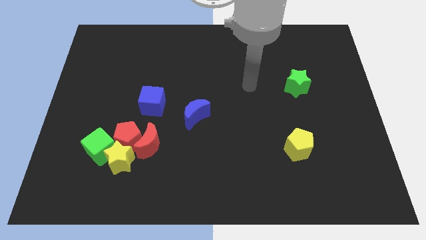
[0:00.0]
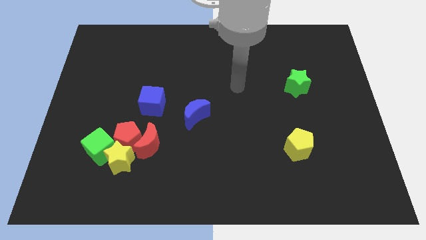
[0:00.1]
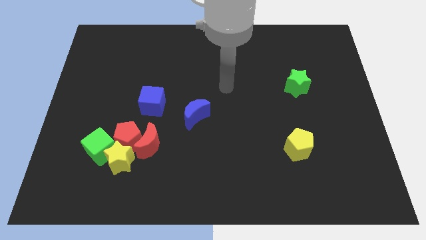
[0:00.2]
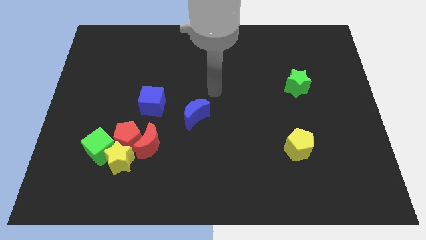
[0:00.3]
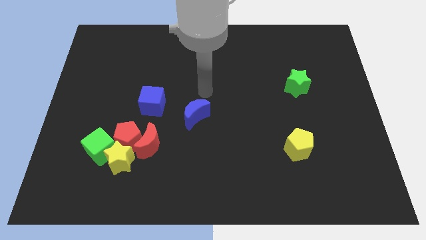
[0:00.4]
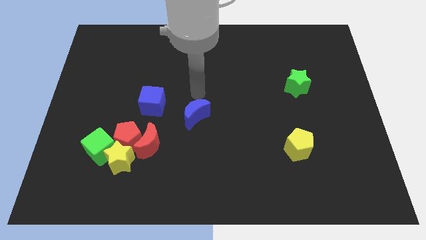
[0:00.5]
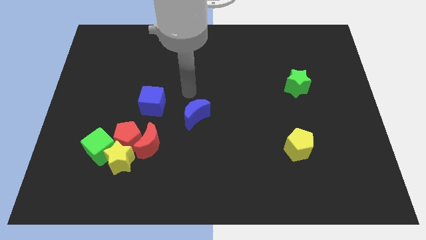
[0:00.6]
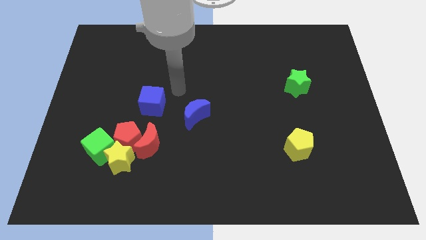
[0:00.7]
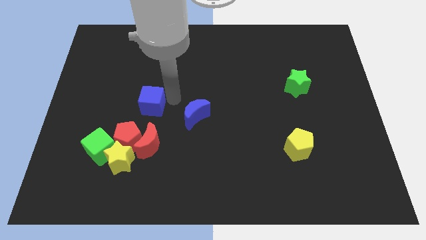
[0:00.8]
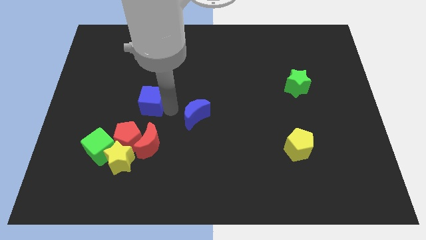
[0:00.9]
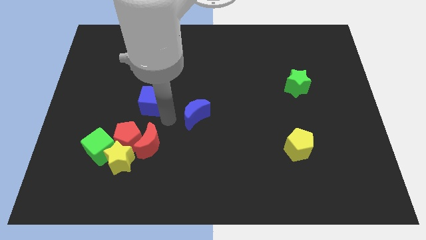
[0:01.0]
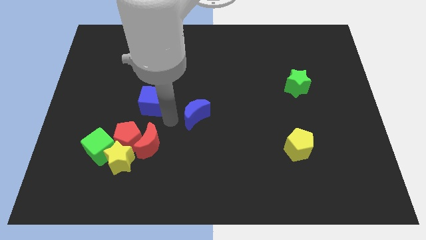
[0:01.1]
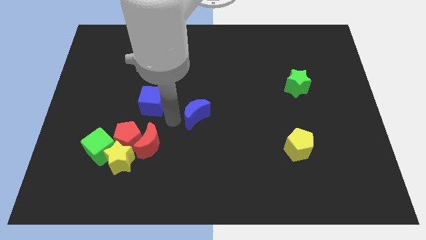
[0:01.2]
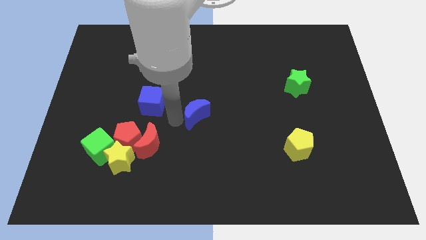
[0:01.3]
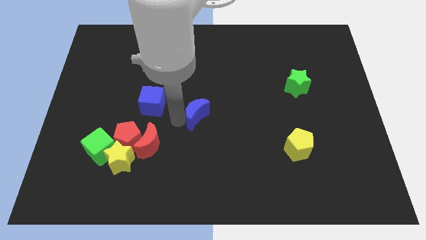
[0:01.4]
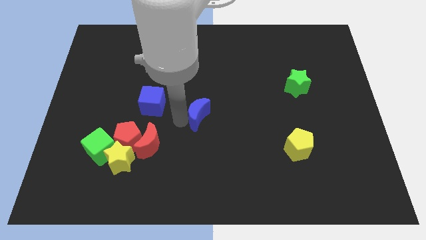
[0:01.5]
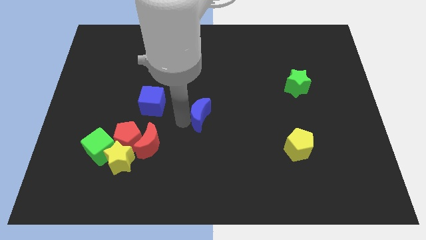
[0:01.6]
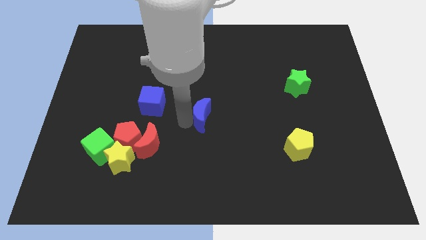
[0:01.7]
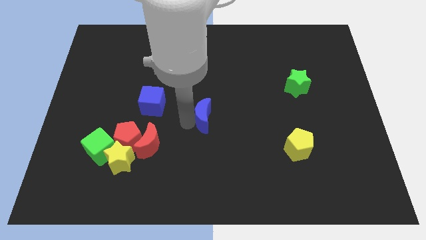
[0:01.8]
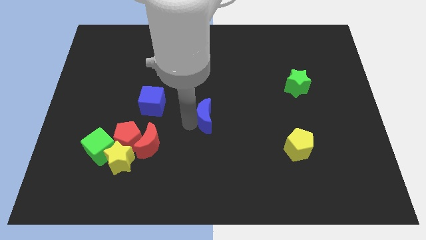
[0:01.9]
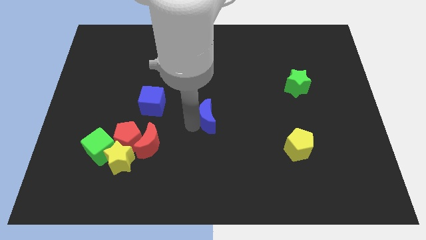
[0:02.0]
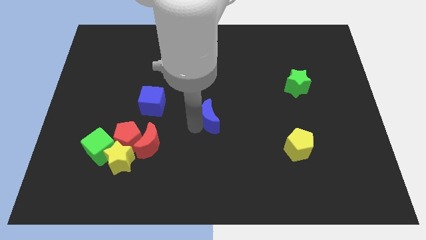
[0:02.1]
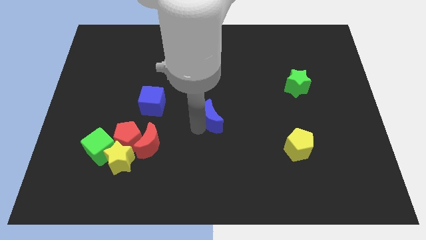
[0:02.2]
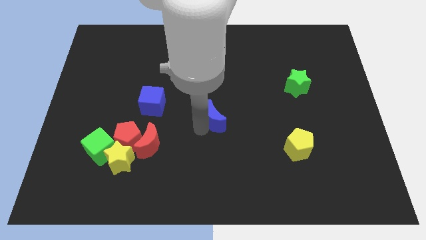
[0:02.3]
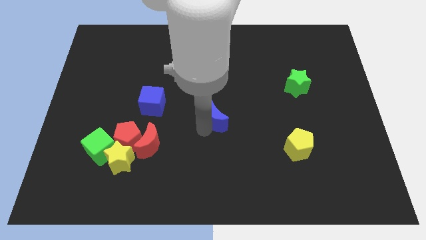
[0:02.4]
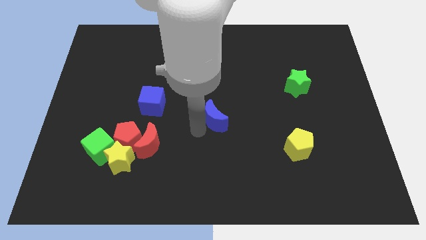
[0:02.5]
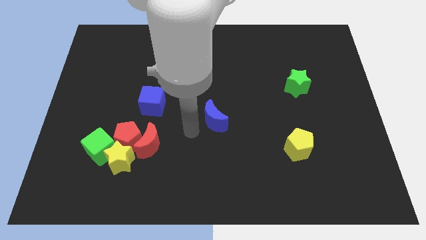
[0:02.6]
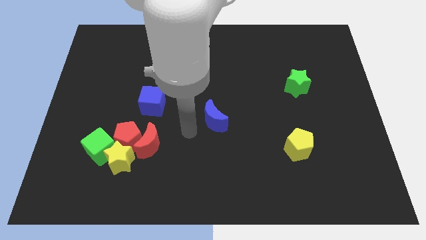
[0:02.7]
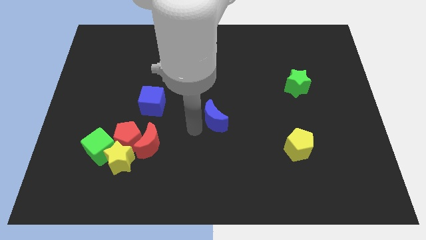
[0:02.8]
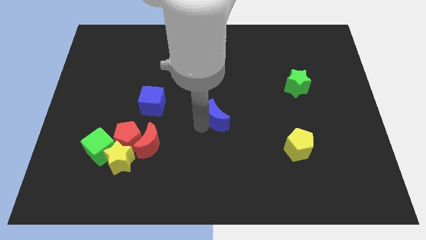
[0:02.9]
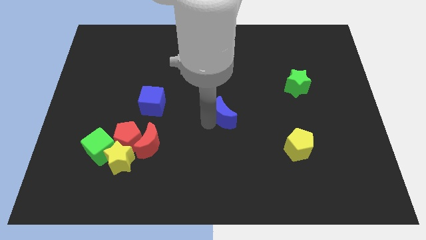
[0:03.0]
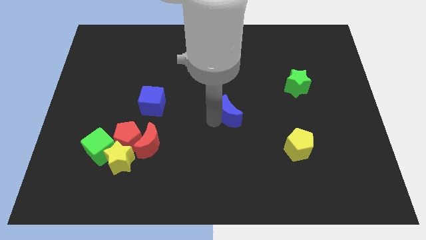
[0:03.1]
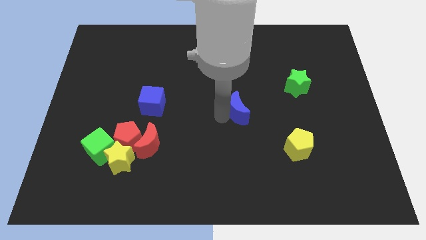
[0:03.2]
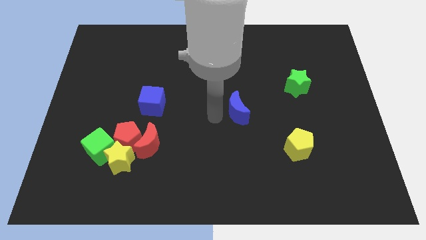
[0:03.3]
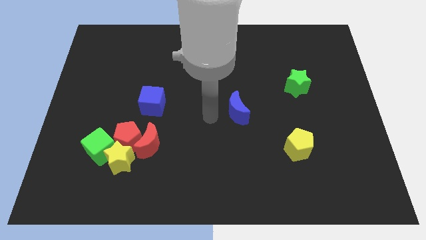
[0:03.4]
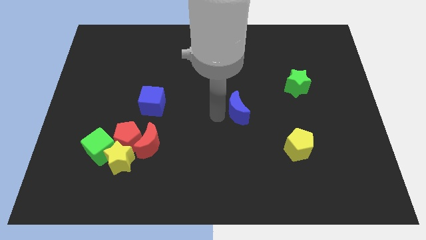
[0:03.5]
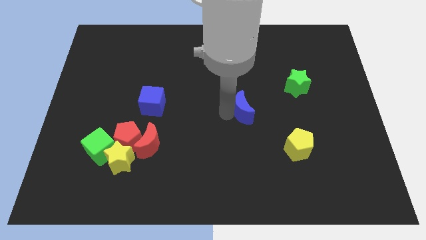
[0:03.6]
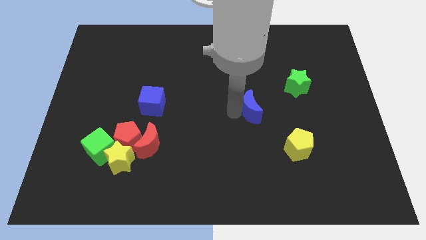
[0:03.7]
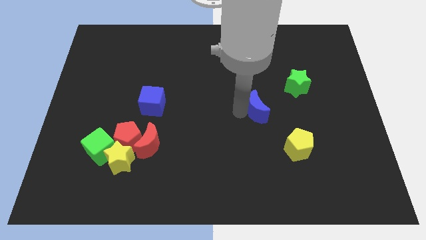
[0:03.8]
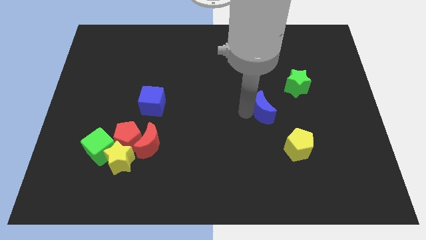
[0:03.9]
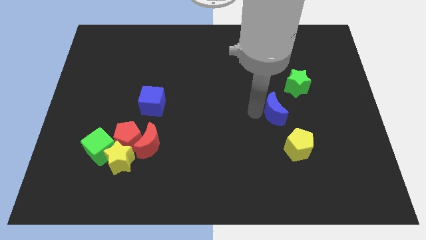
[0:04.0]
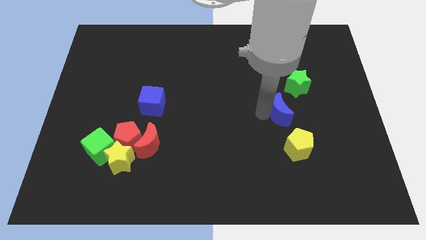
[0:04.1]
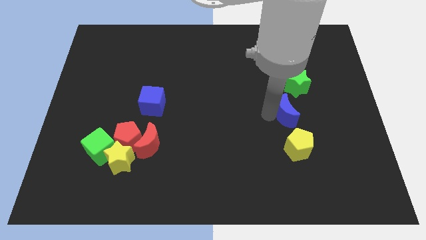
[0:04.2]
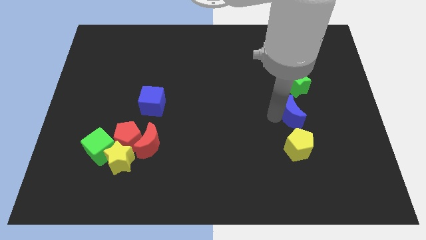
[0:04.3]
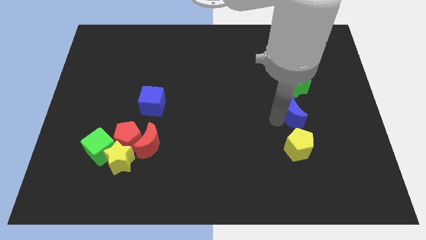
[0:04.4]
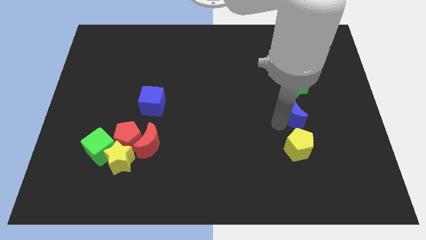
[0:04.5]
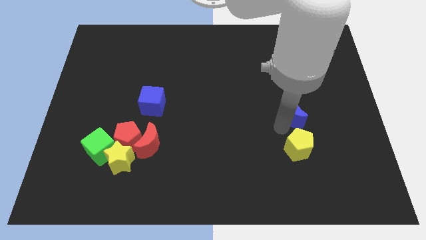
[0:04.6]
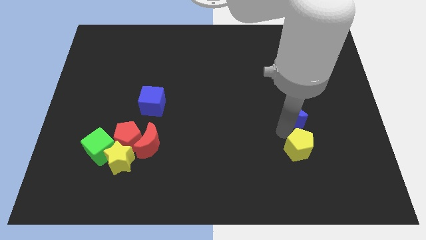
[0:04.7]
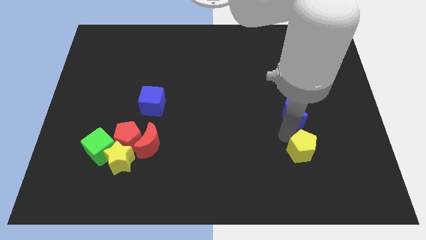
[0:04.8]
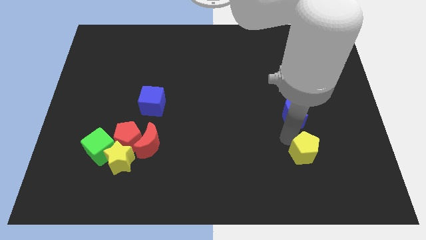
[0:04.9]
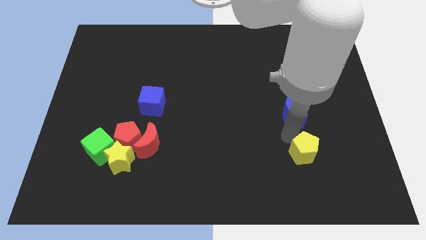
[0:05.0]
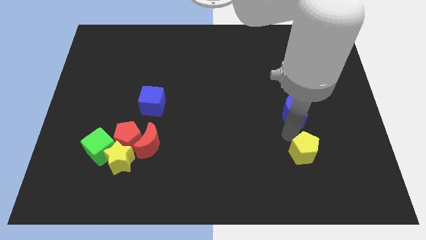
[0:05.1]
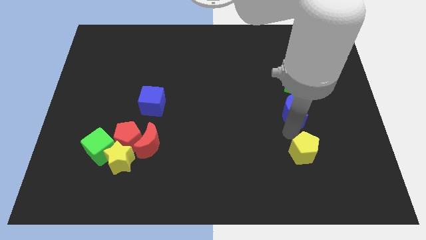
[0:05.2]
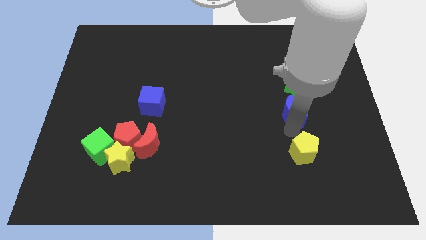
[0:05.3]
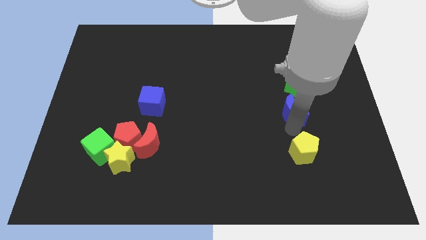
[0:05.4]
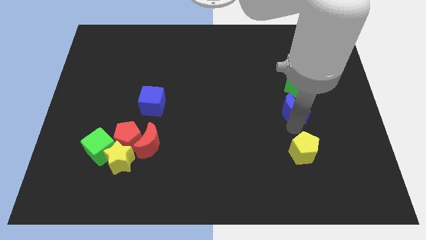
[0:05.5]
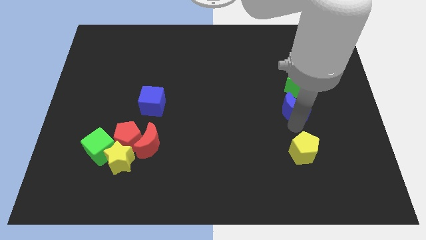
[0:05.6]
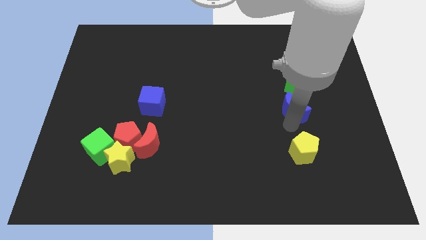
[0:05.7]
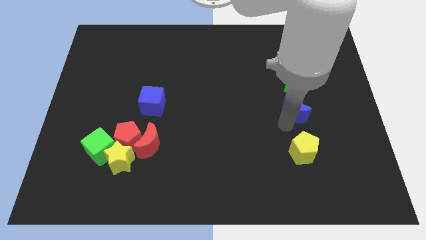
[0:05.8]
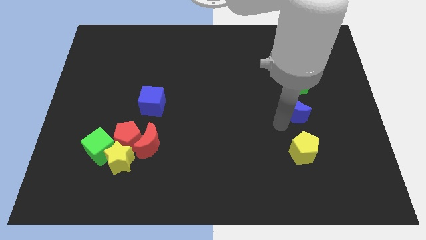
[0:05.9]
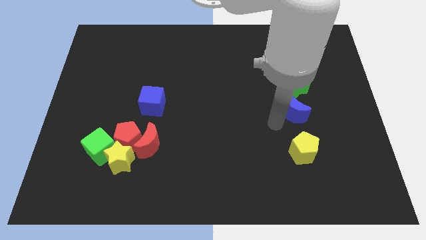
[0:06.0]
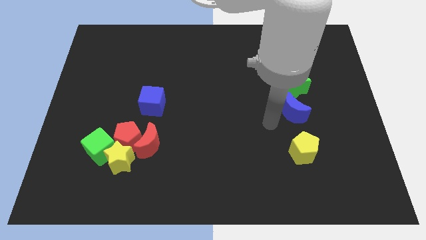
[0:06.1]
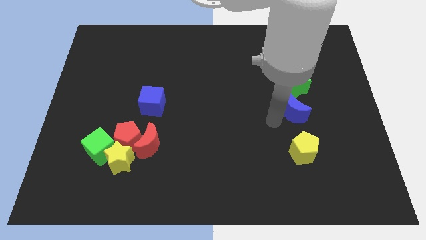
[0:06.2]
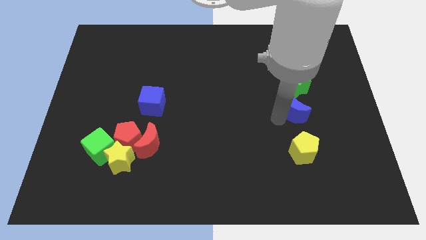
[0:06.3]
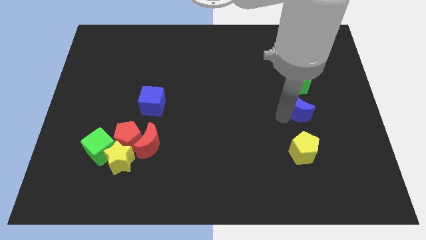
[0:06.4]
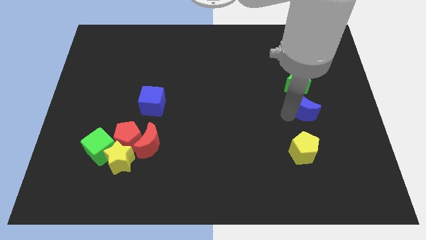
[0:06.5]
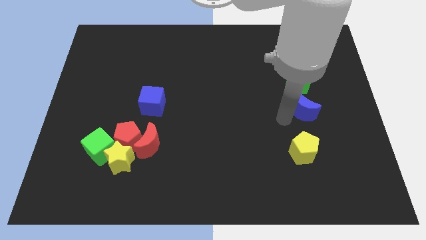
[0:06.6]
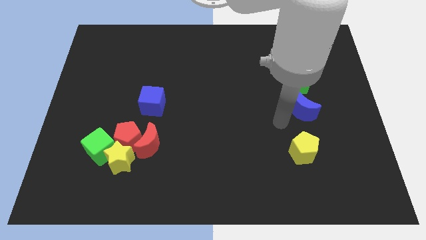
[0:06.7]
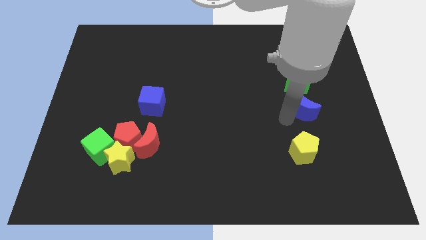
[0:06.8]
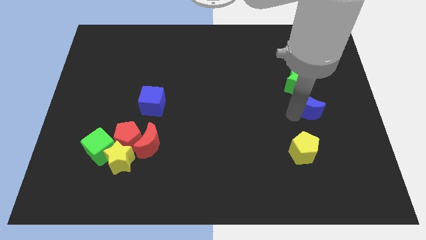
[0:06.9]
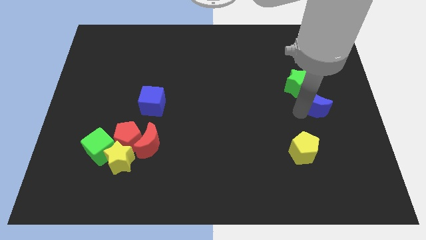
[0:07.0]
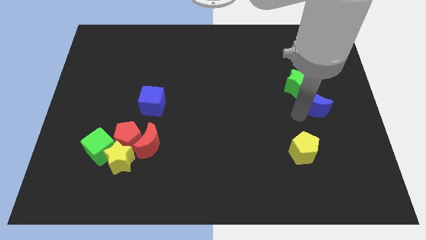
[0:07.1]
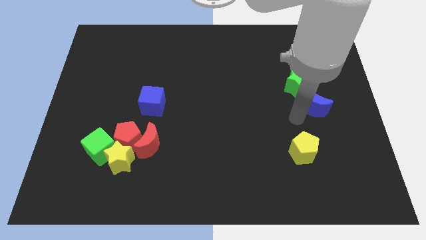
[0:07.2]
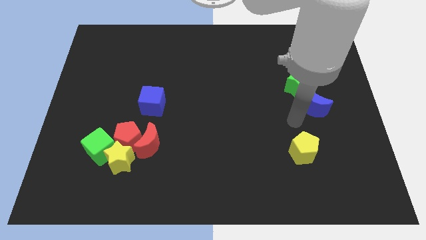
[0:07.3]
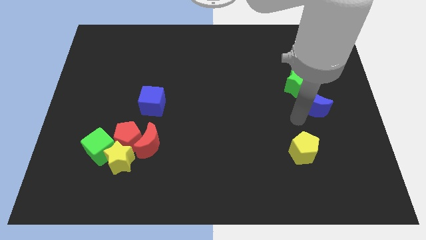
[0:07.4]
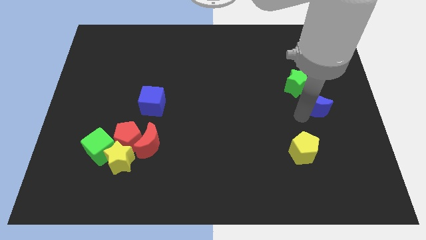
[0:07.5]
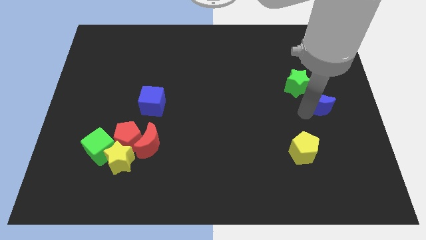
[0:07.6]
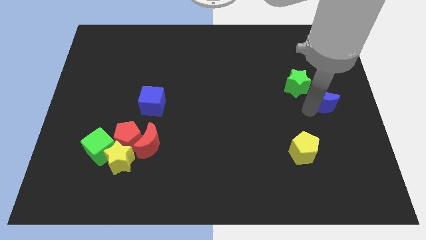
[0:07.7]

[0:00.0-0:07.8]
put the blue moon to the right side of the board

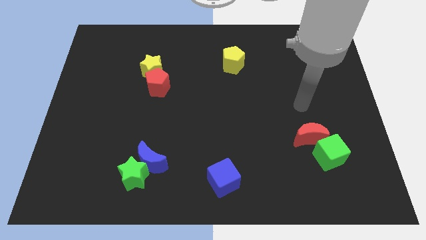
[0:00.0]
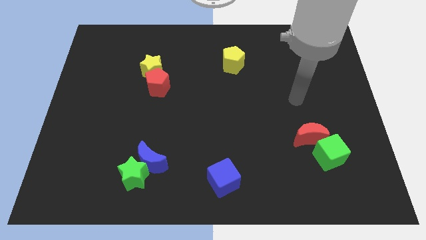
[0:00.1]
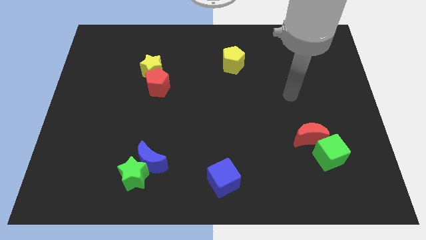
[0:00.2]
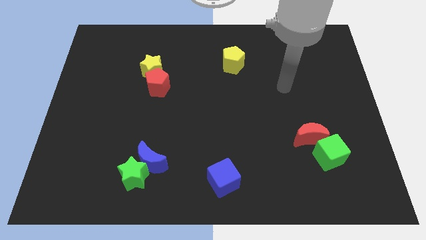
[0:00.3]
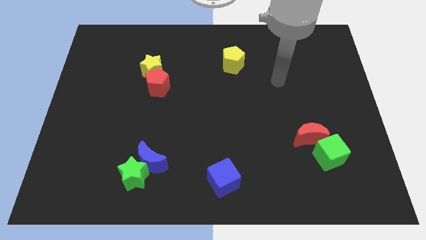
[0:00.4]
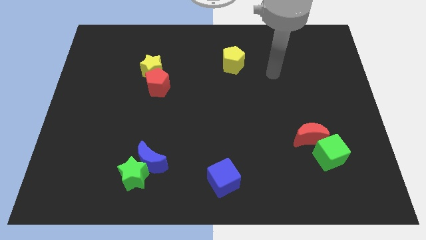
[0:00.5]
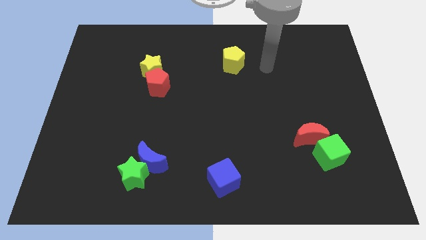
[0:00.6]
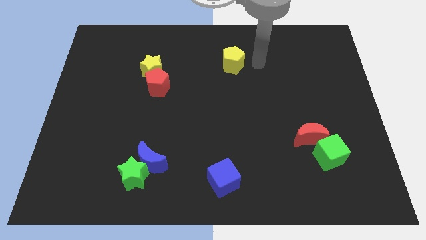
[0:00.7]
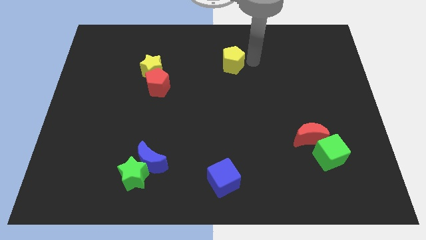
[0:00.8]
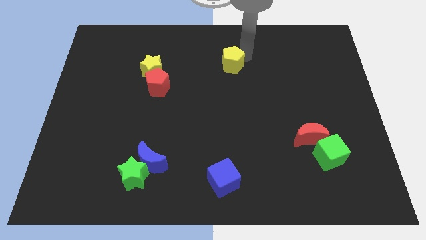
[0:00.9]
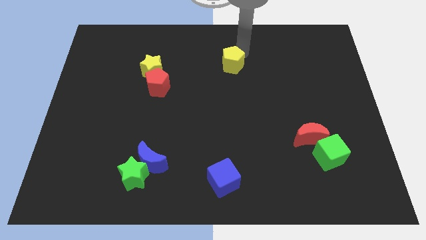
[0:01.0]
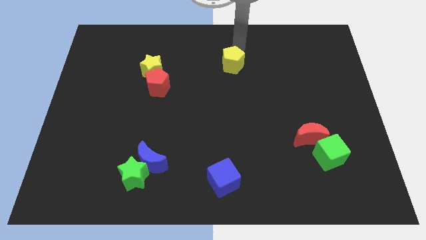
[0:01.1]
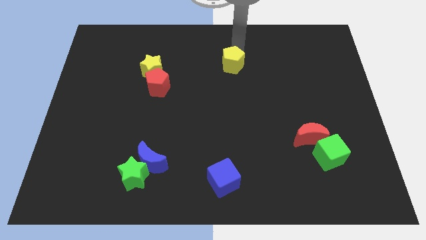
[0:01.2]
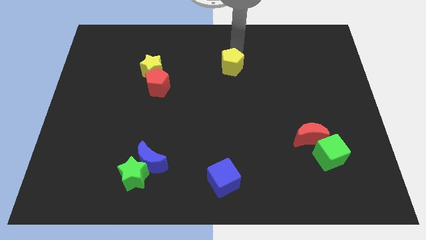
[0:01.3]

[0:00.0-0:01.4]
push the yellow pentagon to the center
